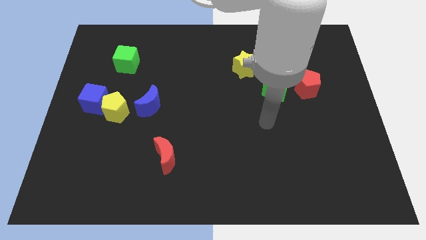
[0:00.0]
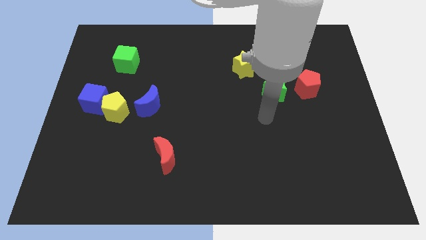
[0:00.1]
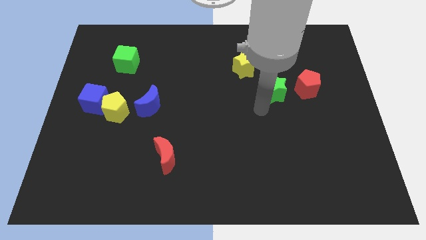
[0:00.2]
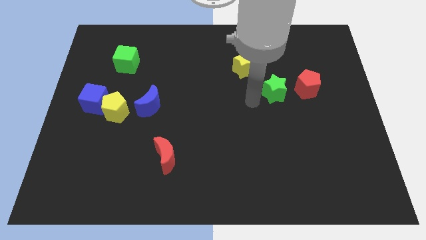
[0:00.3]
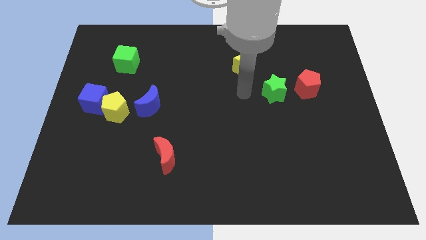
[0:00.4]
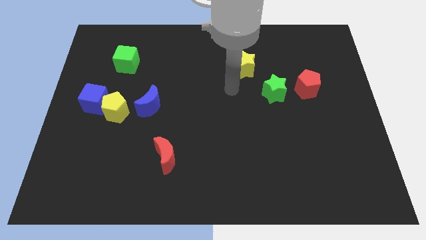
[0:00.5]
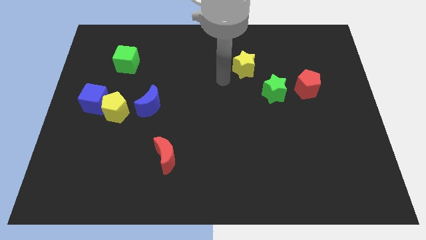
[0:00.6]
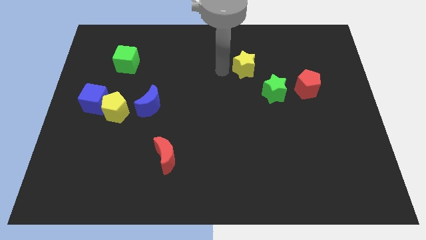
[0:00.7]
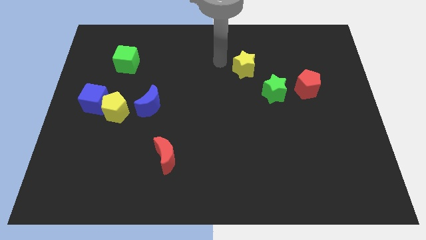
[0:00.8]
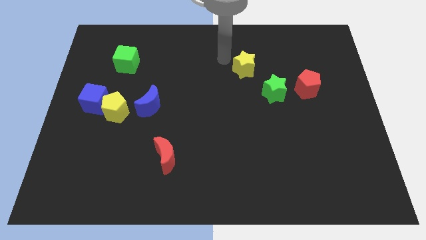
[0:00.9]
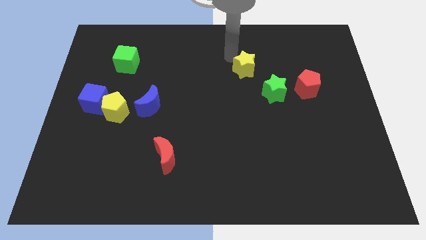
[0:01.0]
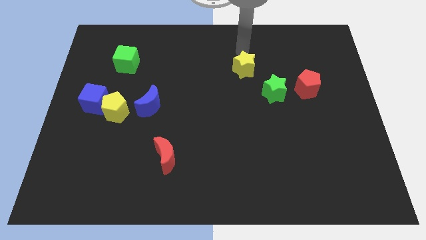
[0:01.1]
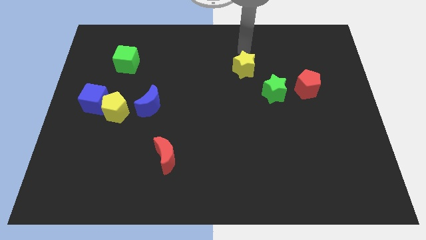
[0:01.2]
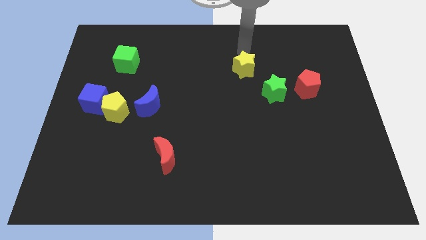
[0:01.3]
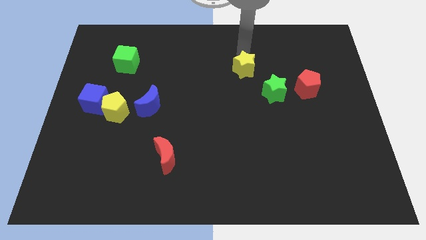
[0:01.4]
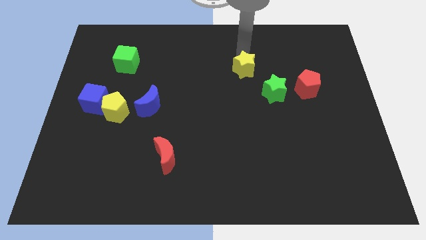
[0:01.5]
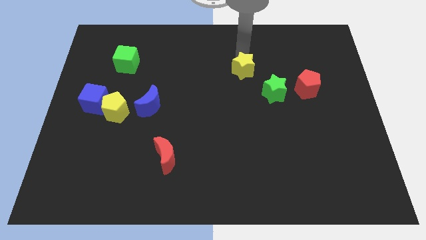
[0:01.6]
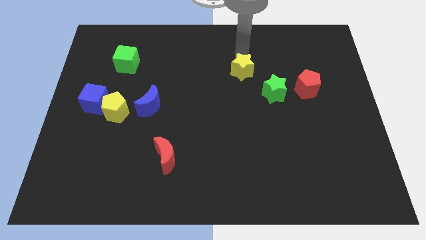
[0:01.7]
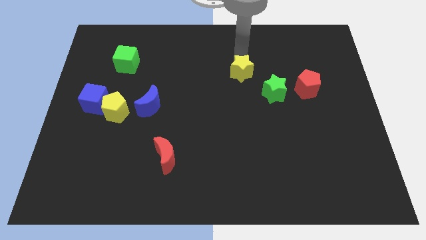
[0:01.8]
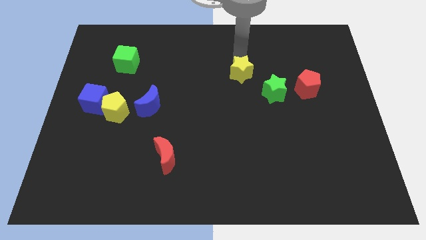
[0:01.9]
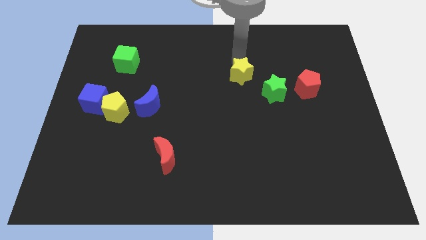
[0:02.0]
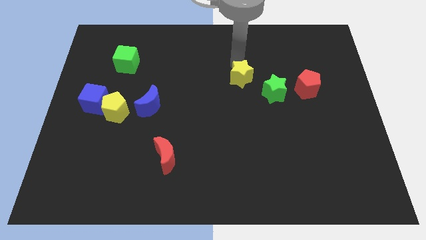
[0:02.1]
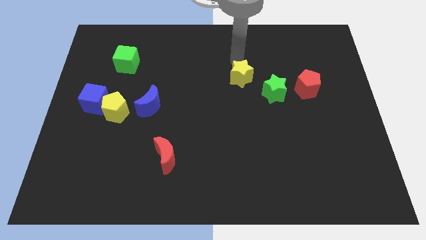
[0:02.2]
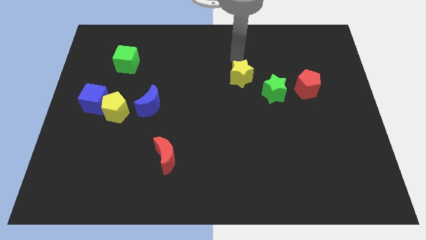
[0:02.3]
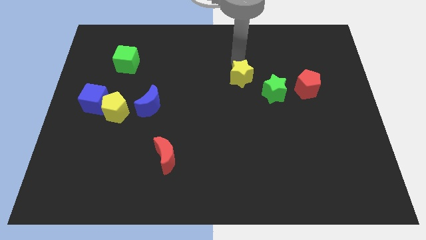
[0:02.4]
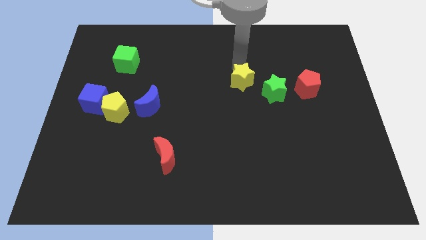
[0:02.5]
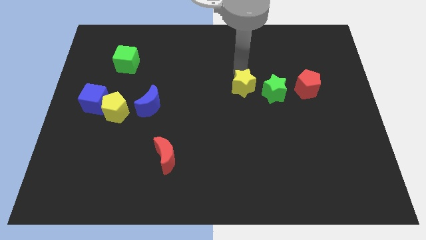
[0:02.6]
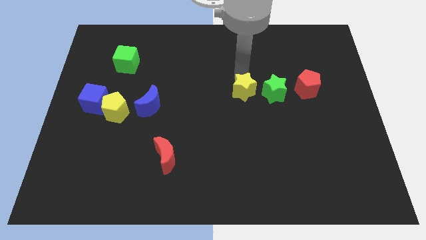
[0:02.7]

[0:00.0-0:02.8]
slightly move the yellow star downwards

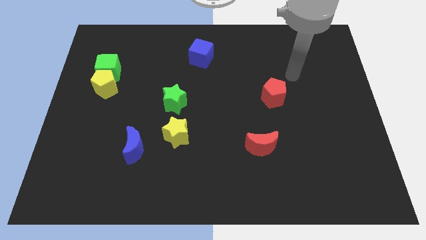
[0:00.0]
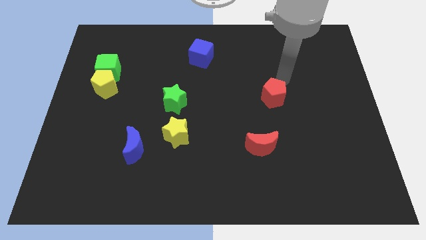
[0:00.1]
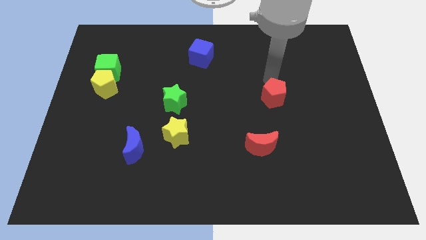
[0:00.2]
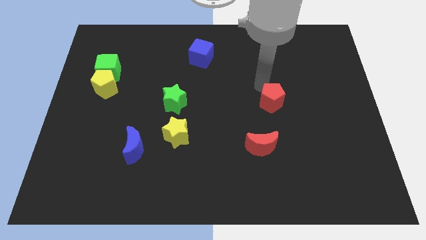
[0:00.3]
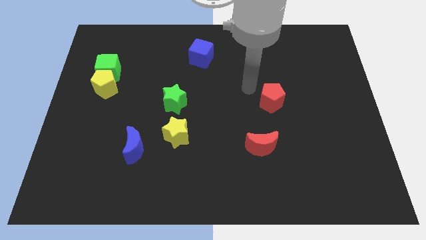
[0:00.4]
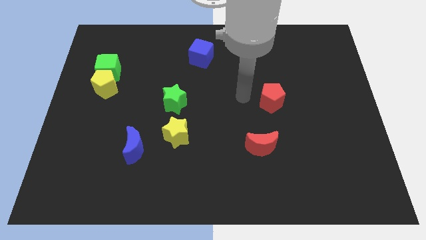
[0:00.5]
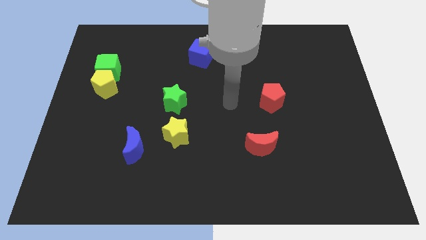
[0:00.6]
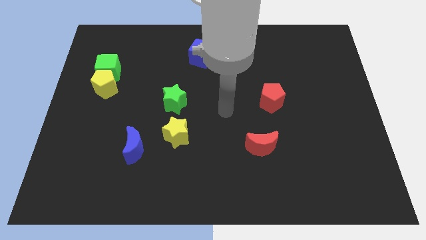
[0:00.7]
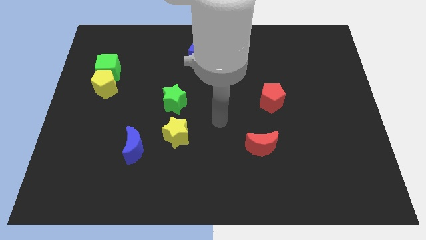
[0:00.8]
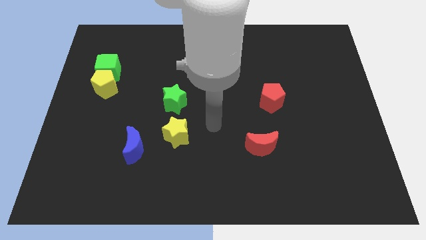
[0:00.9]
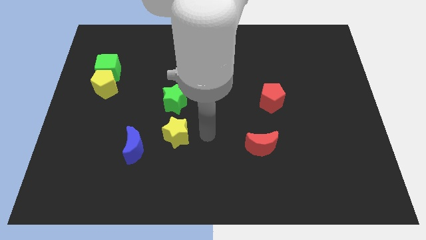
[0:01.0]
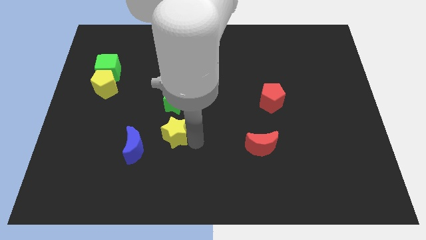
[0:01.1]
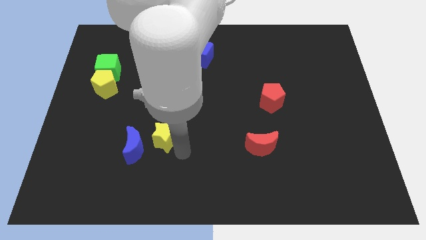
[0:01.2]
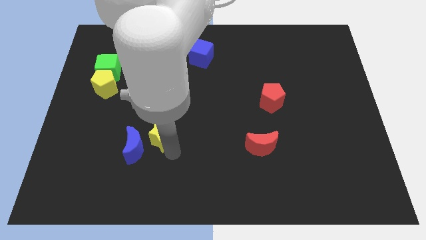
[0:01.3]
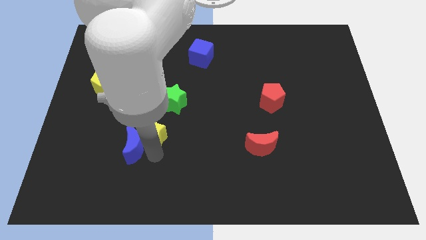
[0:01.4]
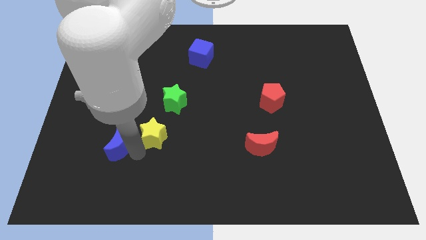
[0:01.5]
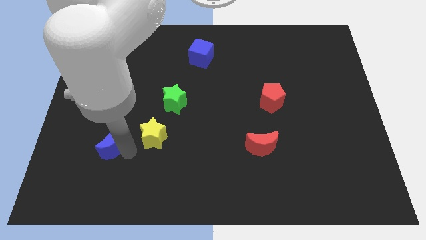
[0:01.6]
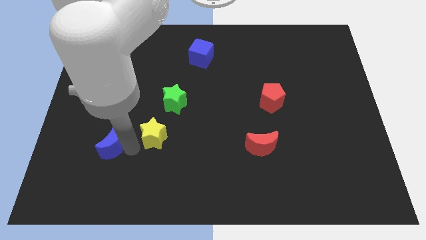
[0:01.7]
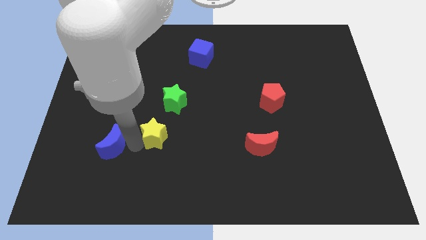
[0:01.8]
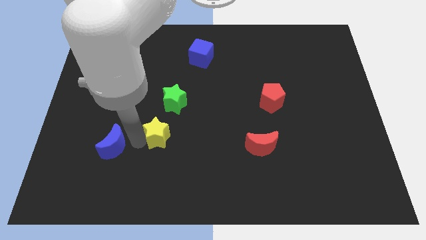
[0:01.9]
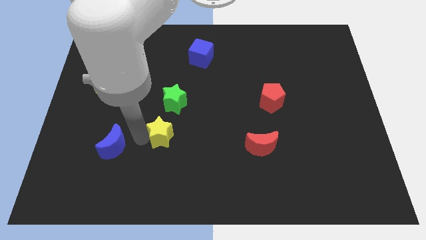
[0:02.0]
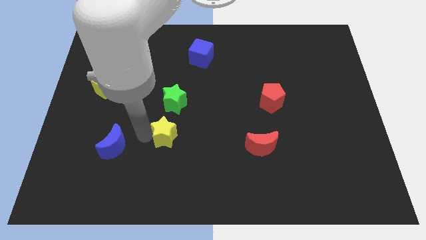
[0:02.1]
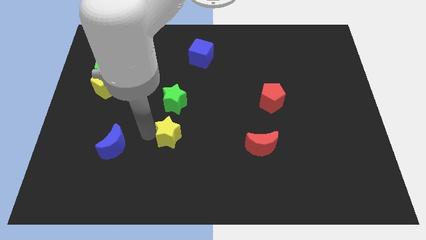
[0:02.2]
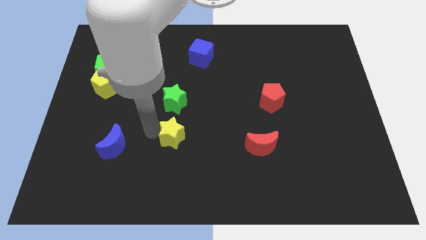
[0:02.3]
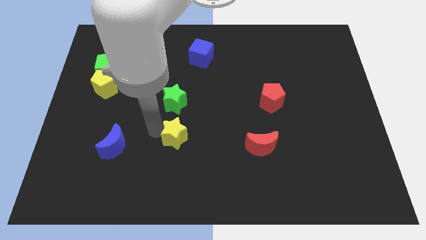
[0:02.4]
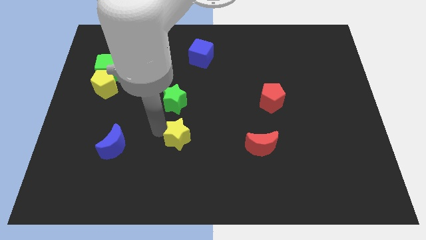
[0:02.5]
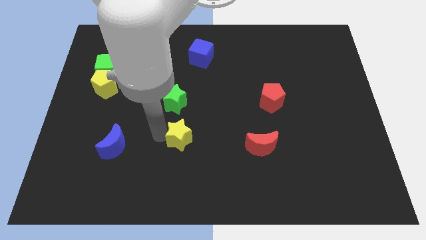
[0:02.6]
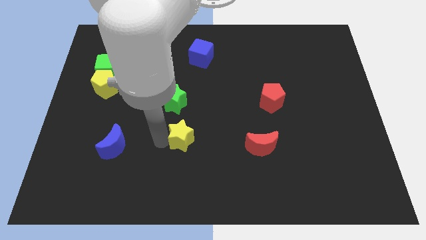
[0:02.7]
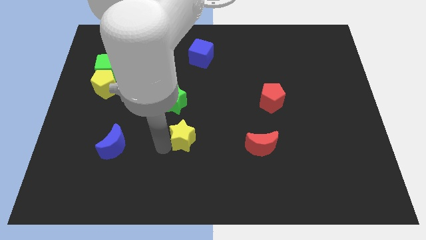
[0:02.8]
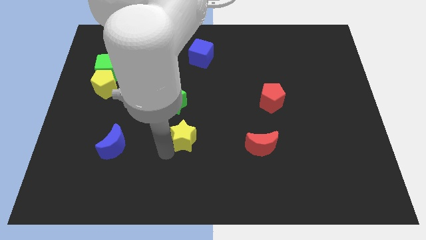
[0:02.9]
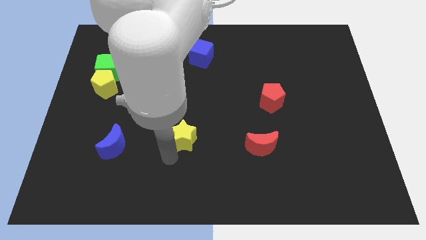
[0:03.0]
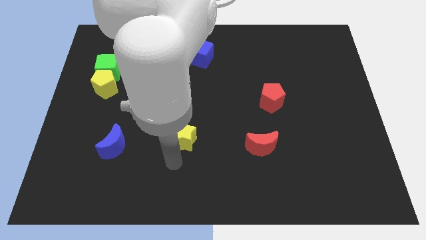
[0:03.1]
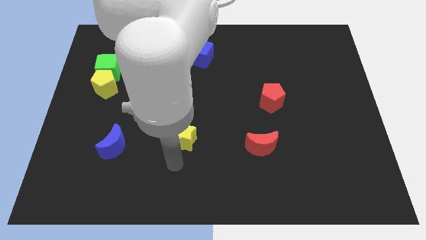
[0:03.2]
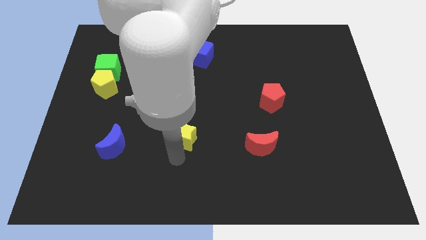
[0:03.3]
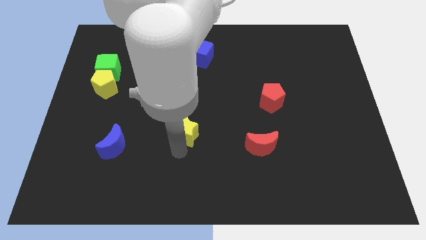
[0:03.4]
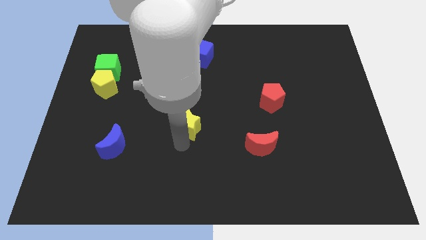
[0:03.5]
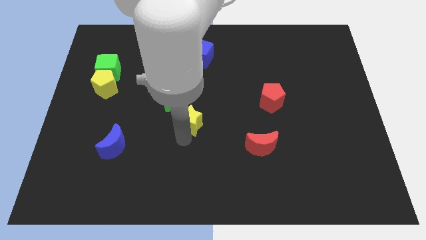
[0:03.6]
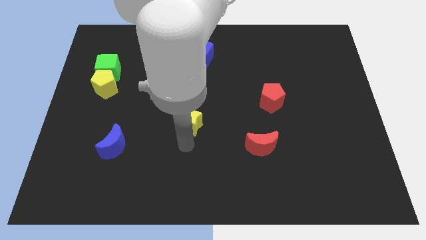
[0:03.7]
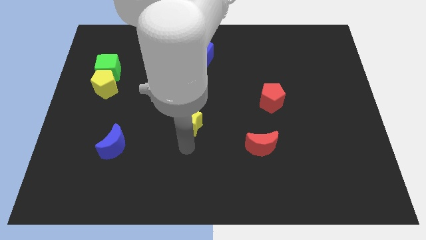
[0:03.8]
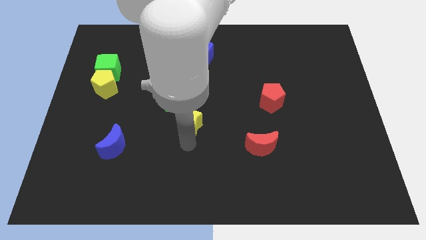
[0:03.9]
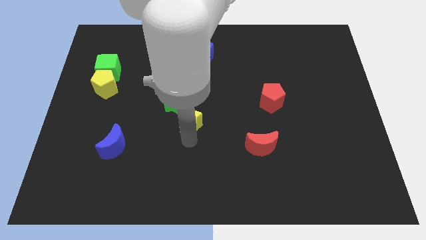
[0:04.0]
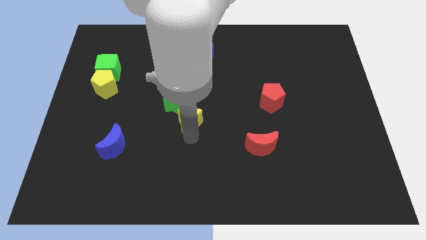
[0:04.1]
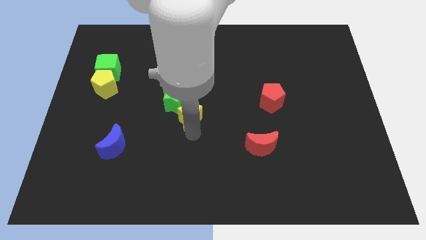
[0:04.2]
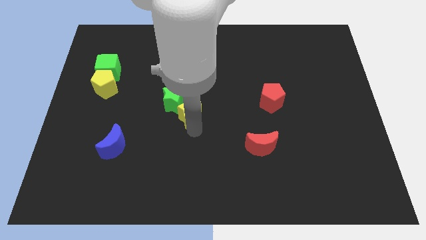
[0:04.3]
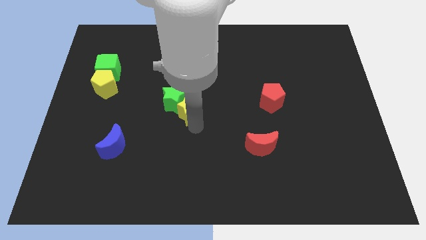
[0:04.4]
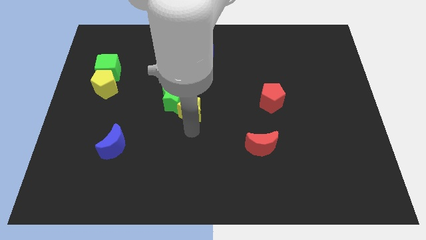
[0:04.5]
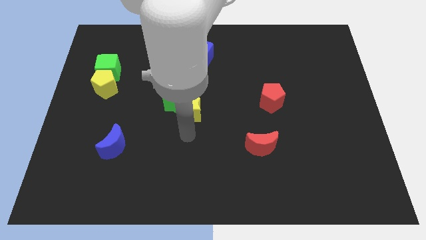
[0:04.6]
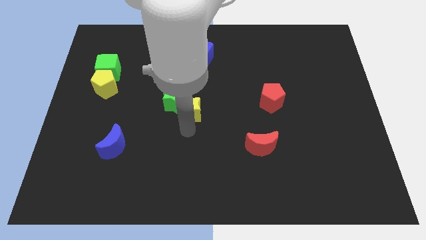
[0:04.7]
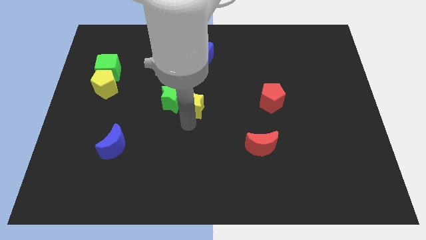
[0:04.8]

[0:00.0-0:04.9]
move the yellow star upwards a bit

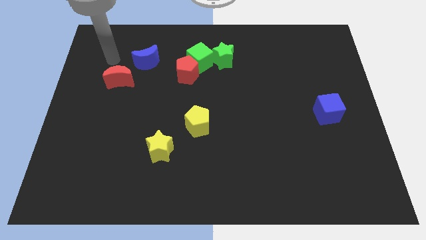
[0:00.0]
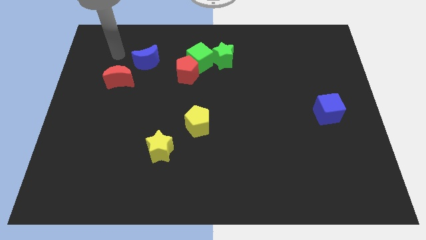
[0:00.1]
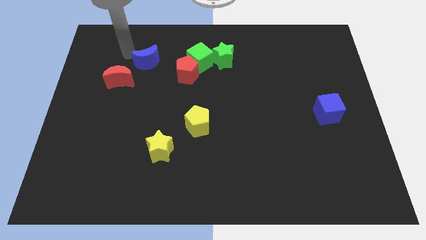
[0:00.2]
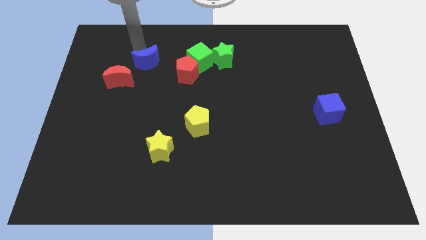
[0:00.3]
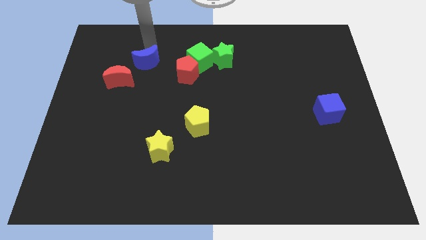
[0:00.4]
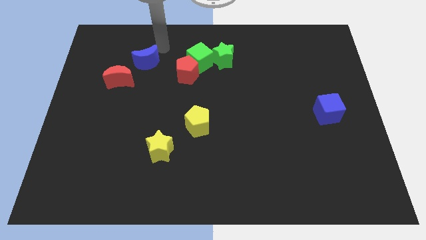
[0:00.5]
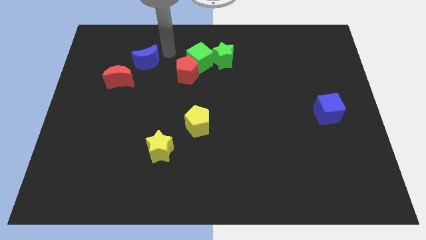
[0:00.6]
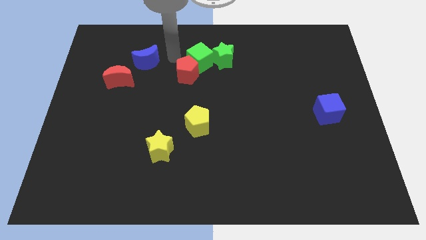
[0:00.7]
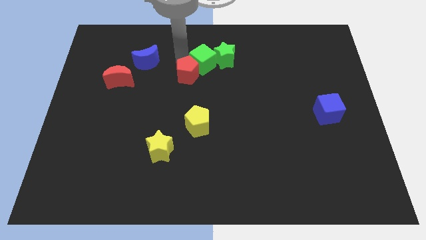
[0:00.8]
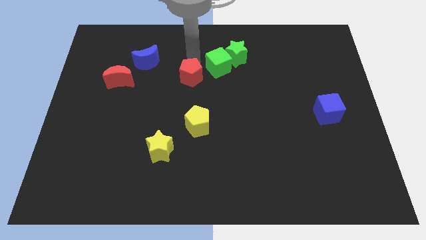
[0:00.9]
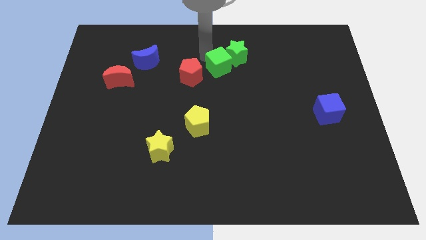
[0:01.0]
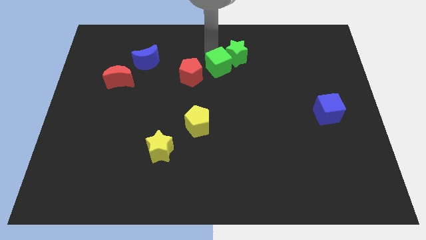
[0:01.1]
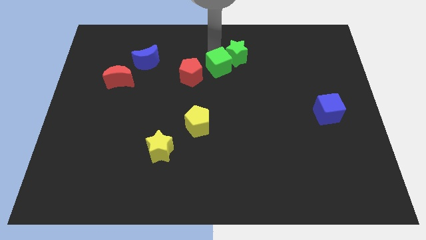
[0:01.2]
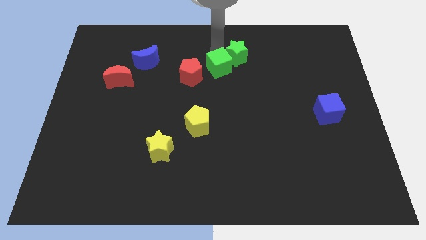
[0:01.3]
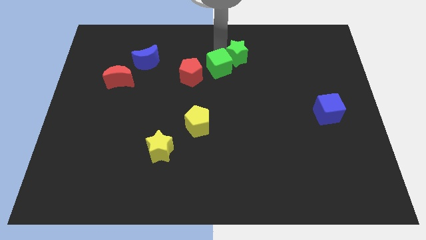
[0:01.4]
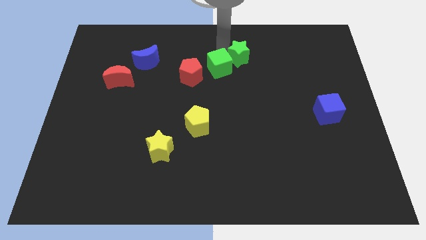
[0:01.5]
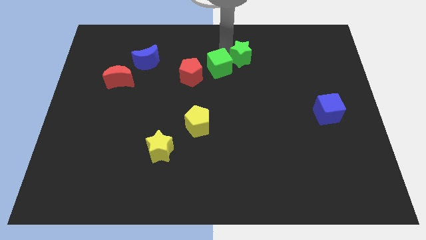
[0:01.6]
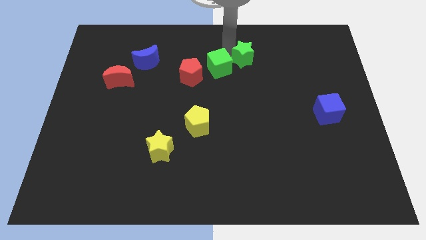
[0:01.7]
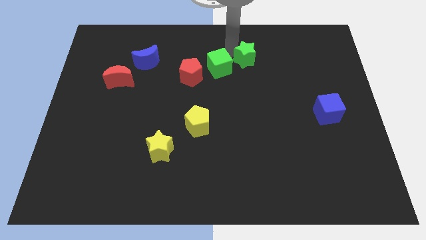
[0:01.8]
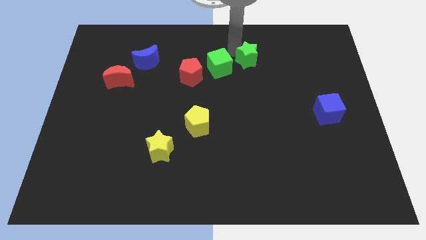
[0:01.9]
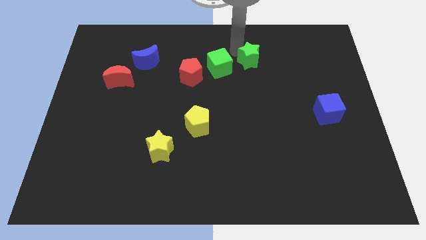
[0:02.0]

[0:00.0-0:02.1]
slightly push the green star right
